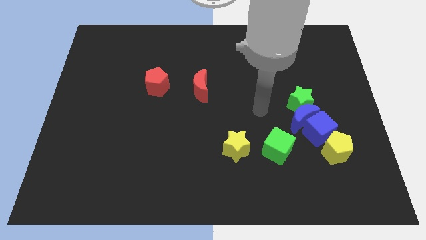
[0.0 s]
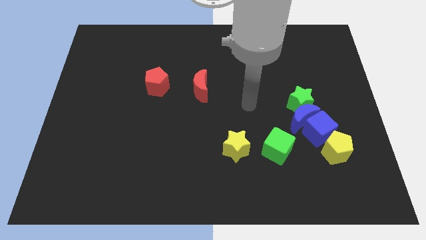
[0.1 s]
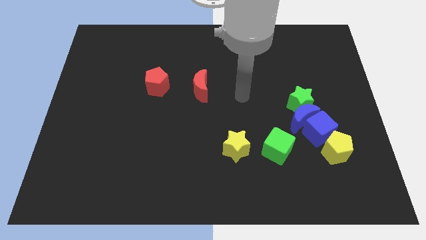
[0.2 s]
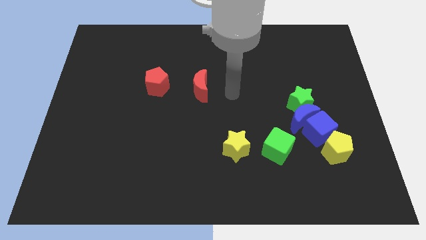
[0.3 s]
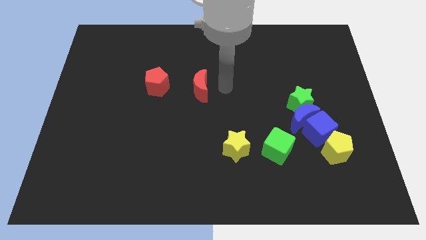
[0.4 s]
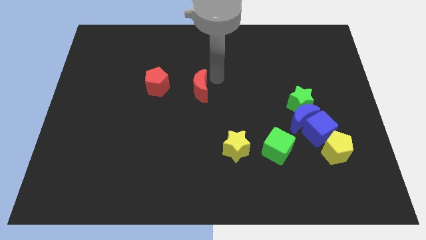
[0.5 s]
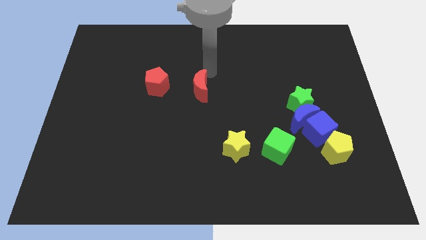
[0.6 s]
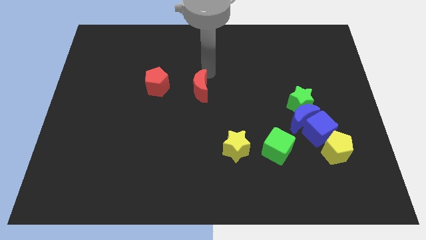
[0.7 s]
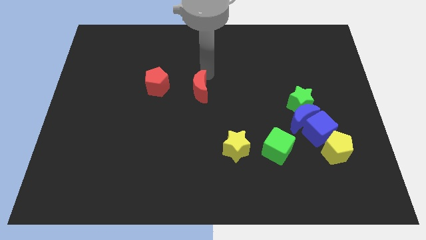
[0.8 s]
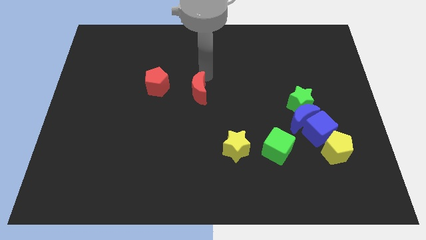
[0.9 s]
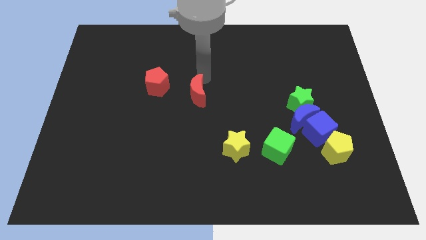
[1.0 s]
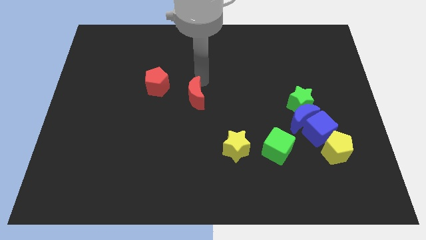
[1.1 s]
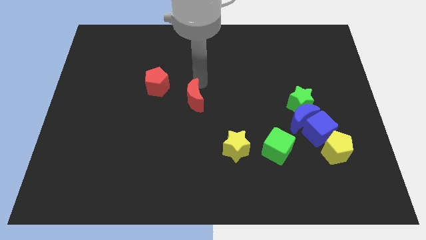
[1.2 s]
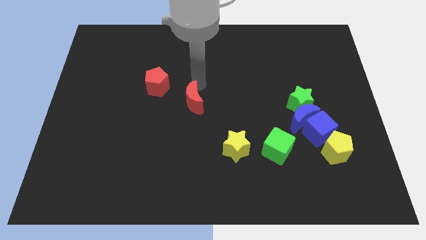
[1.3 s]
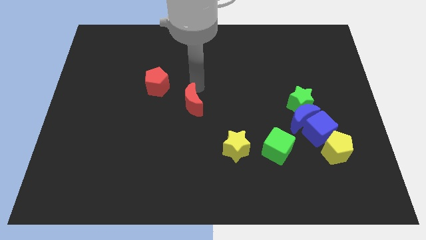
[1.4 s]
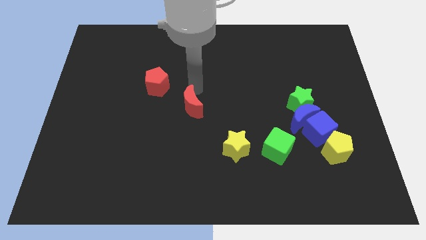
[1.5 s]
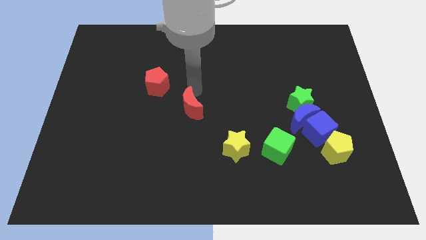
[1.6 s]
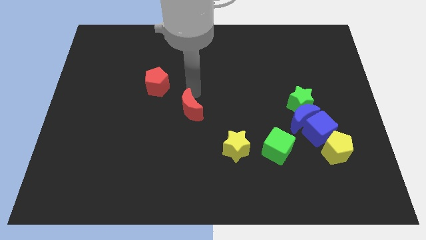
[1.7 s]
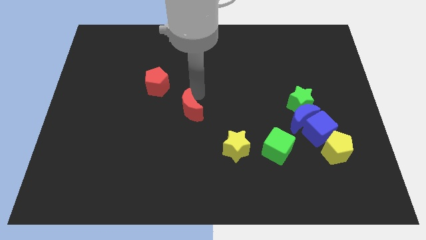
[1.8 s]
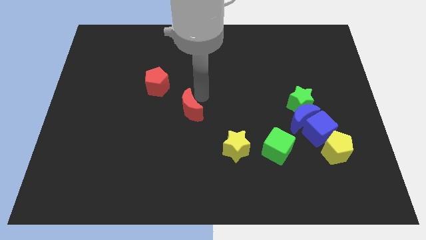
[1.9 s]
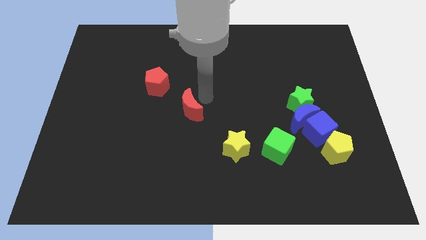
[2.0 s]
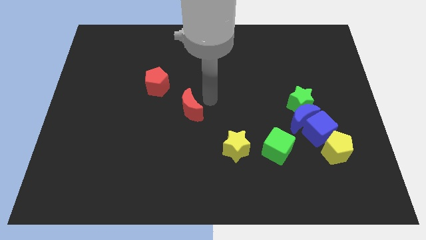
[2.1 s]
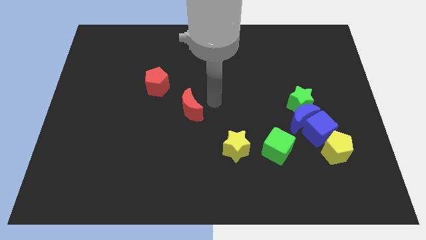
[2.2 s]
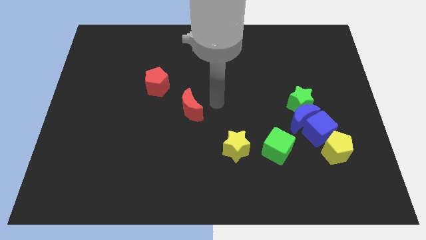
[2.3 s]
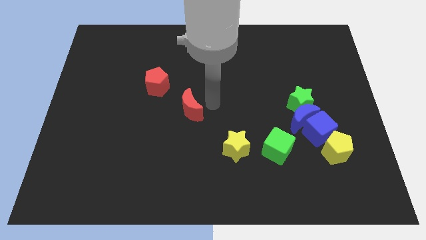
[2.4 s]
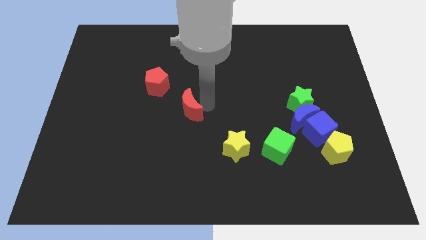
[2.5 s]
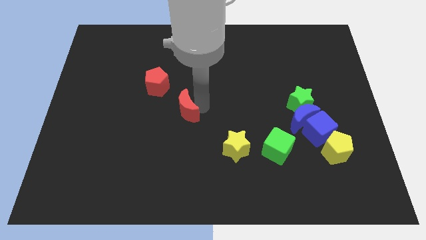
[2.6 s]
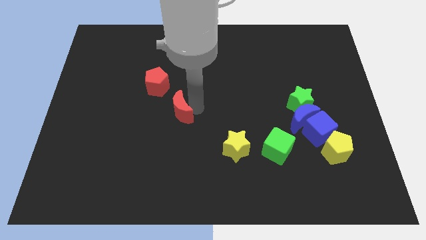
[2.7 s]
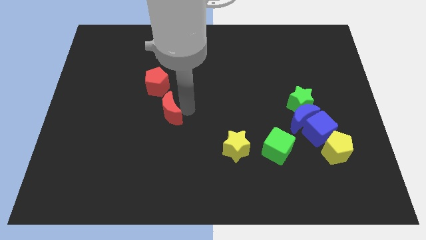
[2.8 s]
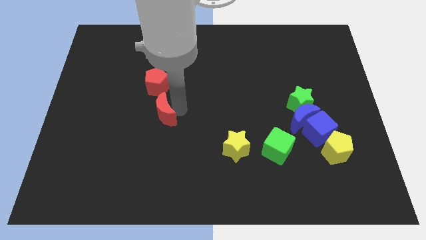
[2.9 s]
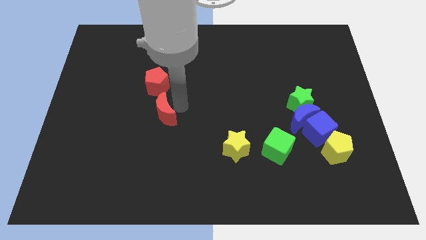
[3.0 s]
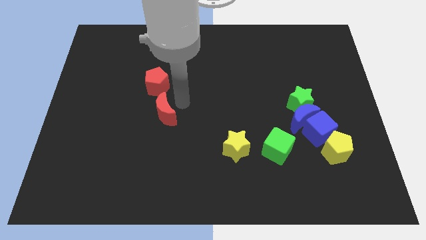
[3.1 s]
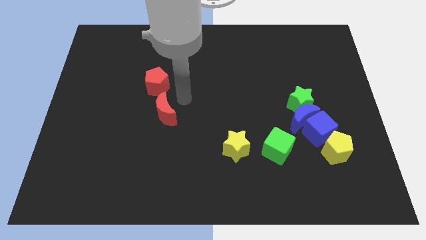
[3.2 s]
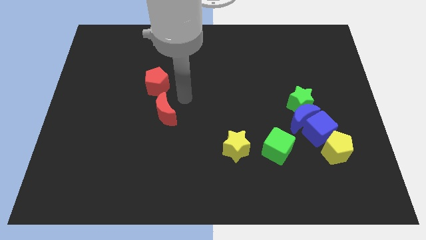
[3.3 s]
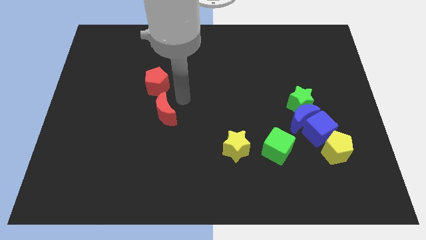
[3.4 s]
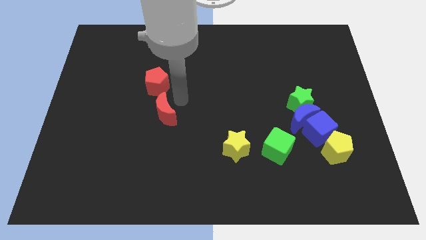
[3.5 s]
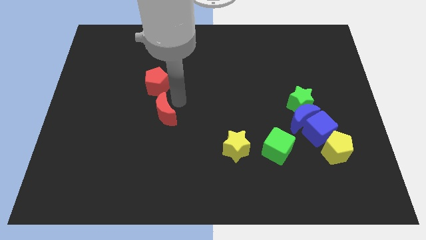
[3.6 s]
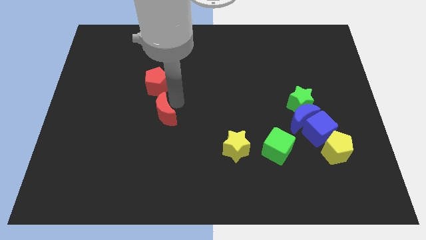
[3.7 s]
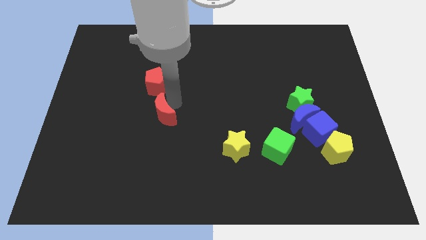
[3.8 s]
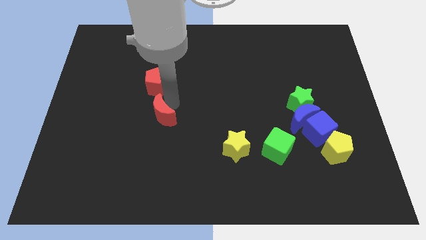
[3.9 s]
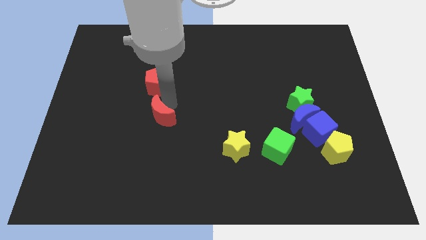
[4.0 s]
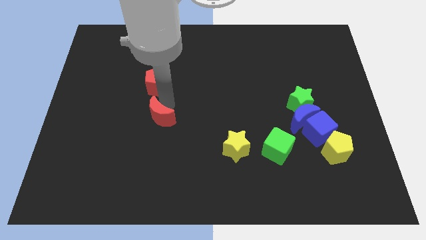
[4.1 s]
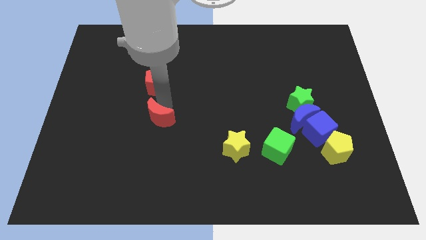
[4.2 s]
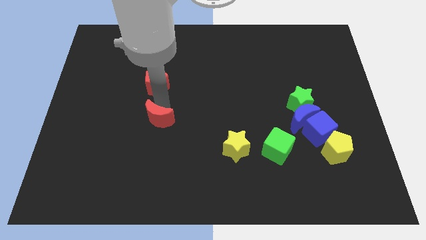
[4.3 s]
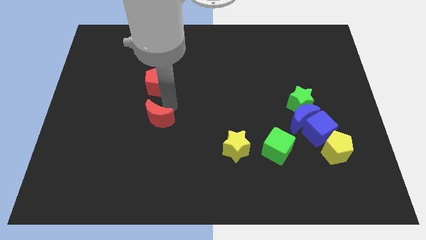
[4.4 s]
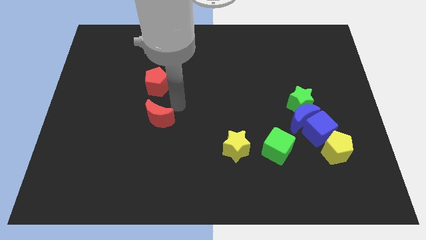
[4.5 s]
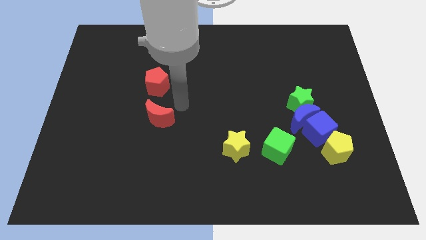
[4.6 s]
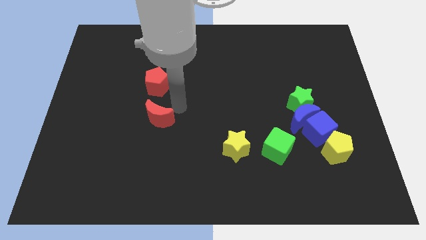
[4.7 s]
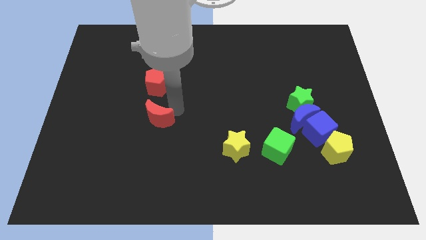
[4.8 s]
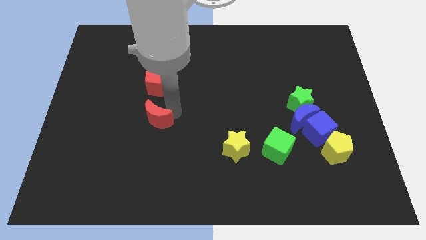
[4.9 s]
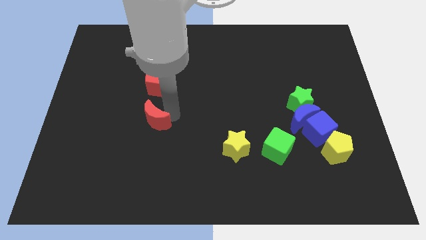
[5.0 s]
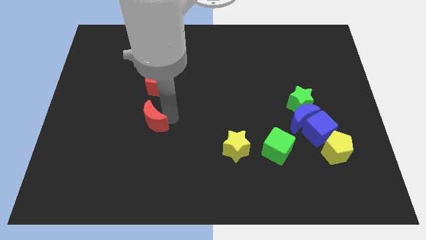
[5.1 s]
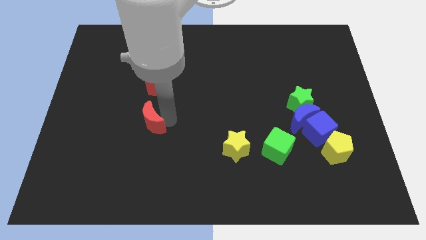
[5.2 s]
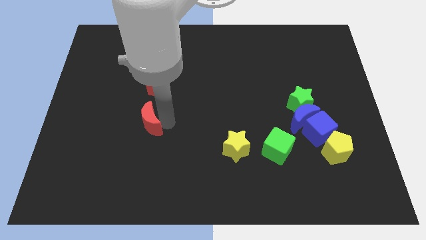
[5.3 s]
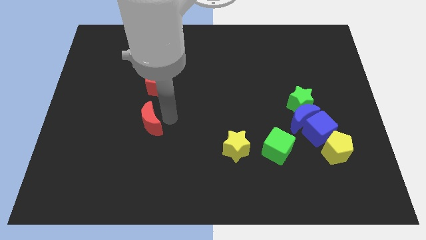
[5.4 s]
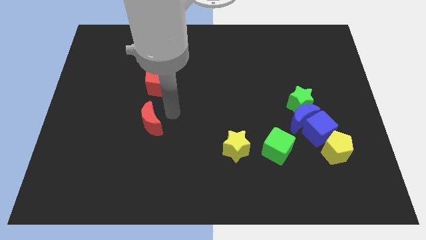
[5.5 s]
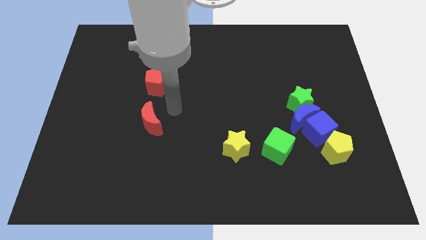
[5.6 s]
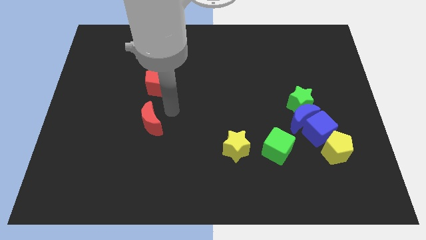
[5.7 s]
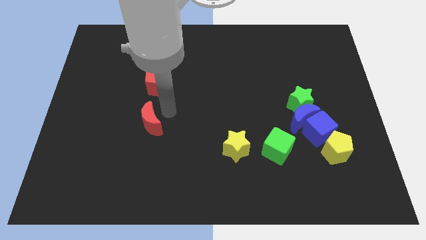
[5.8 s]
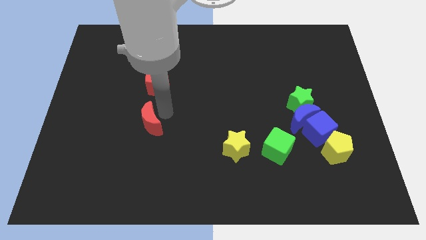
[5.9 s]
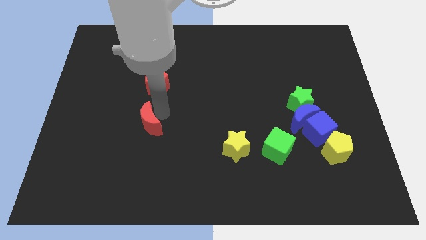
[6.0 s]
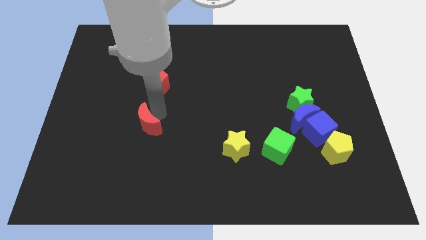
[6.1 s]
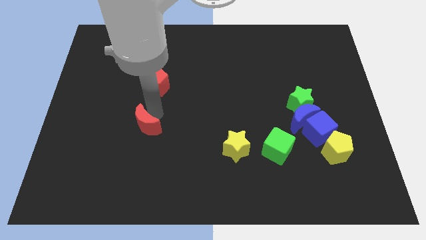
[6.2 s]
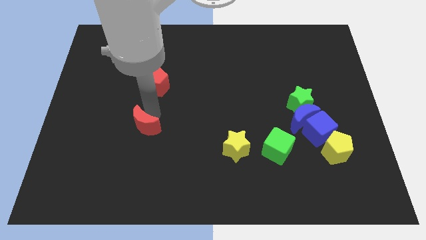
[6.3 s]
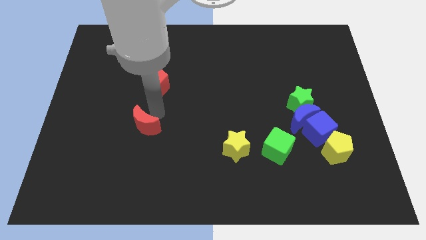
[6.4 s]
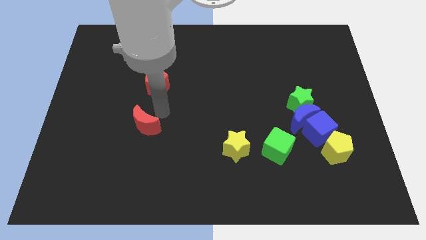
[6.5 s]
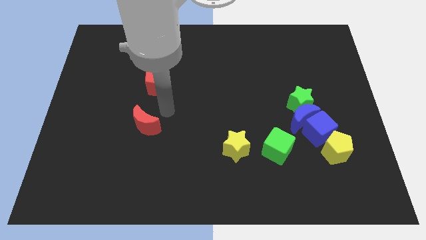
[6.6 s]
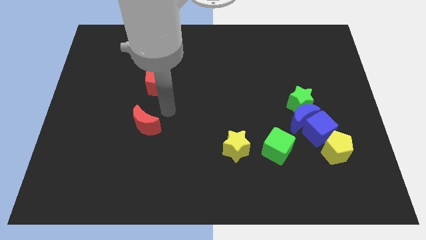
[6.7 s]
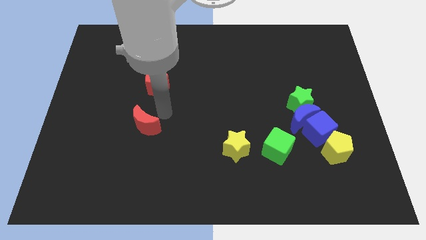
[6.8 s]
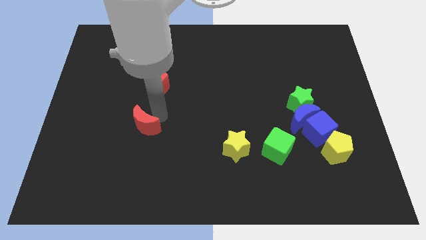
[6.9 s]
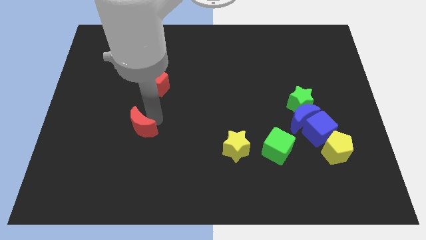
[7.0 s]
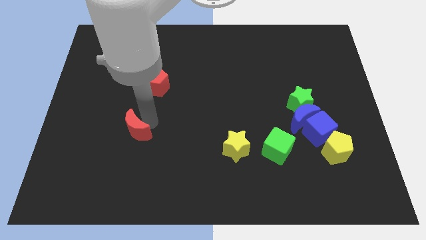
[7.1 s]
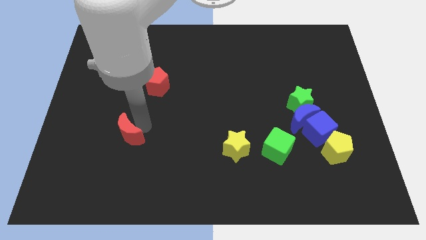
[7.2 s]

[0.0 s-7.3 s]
move the red moon downwards and left diagonally

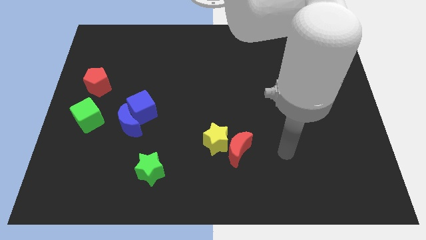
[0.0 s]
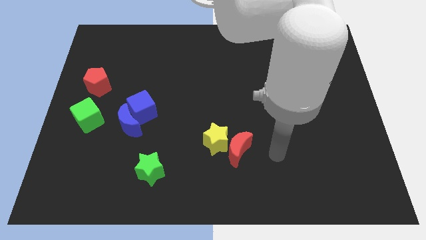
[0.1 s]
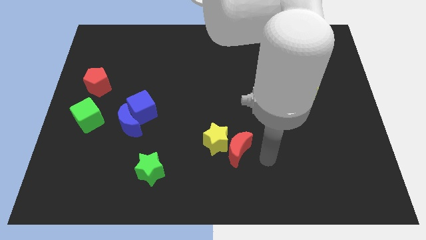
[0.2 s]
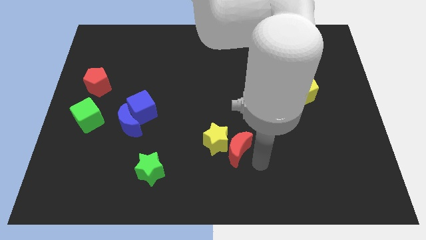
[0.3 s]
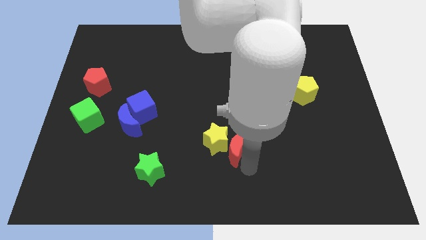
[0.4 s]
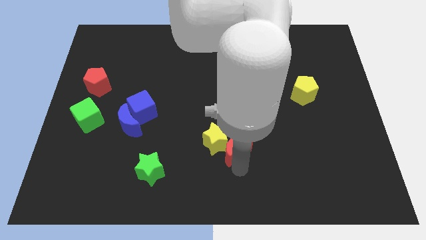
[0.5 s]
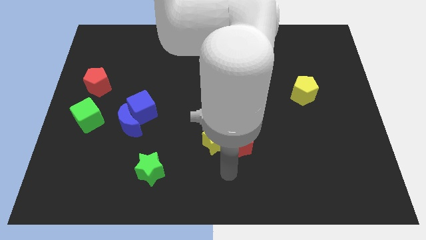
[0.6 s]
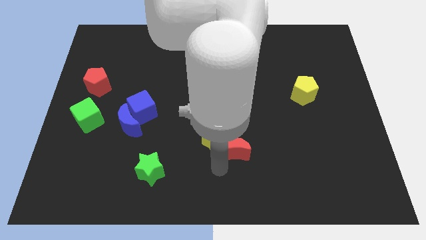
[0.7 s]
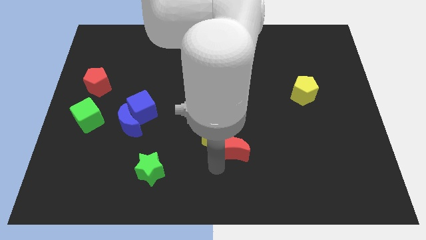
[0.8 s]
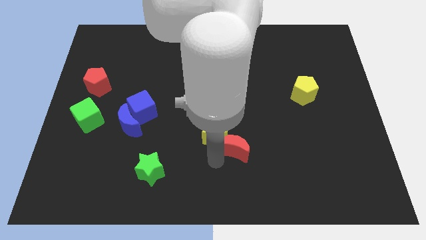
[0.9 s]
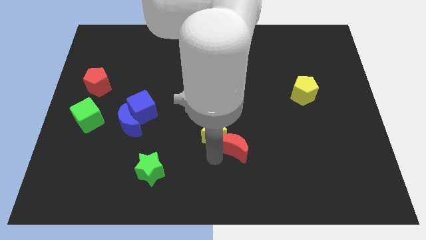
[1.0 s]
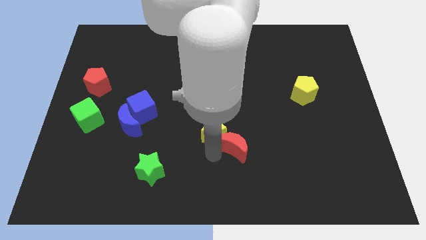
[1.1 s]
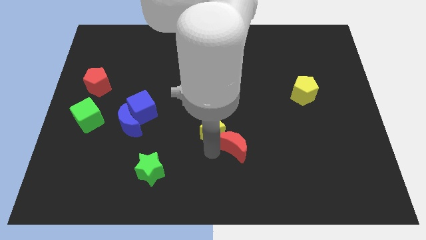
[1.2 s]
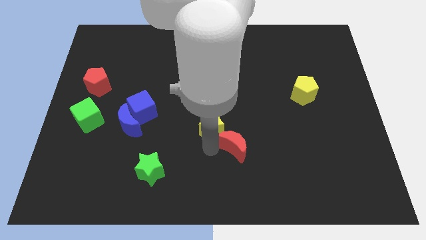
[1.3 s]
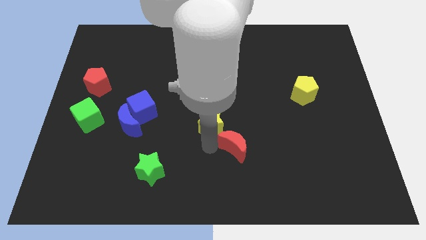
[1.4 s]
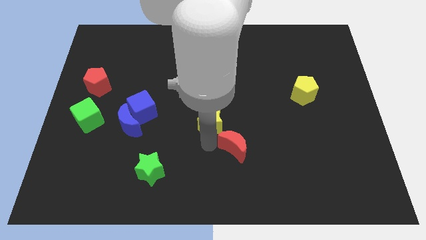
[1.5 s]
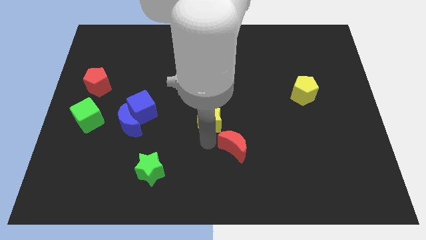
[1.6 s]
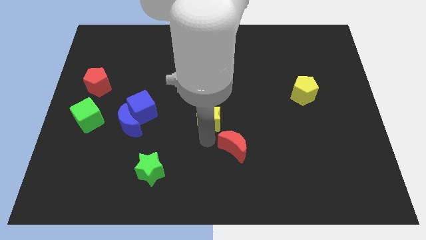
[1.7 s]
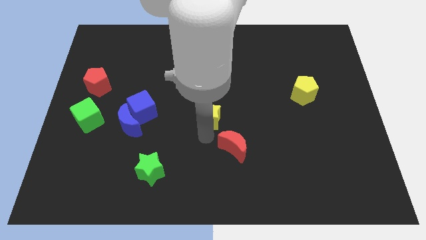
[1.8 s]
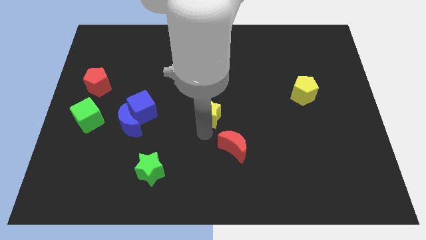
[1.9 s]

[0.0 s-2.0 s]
slightly move the yellow star upwards
